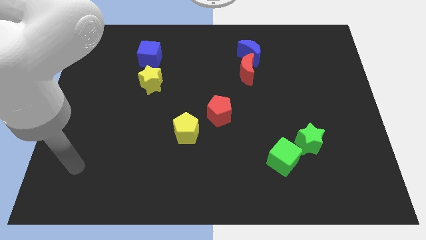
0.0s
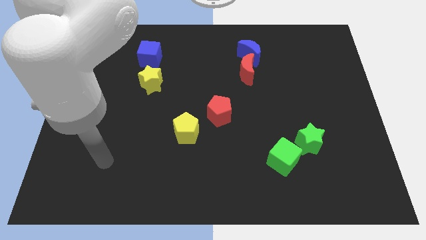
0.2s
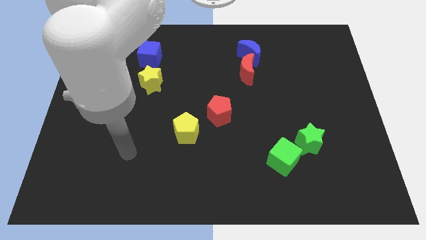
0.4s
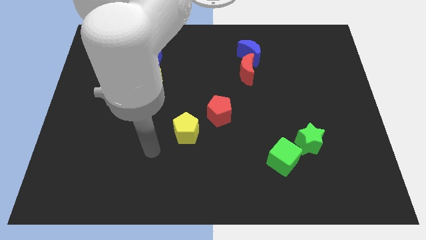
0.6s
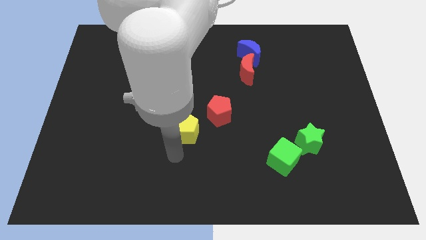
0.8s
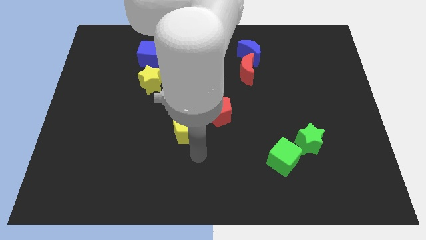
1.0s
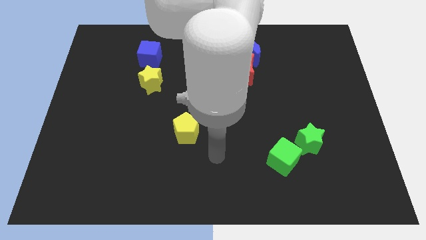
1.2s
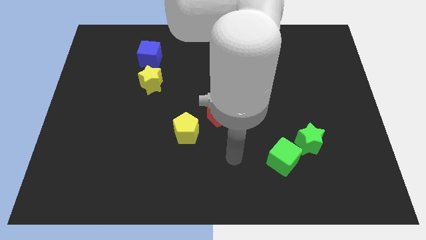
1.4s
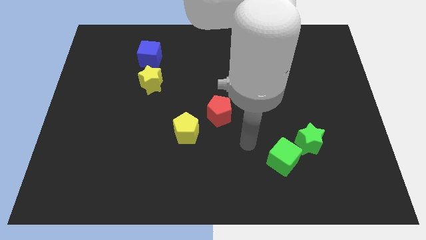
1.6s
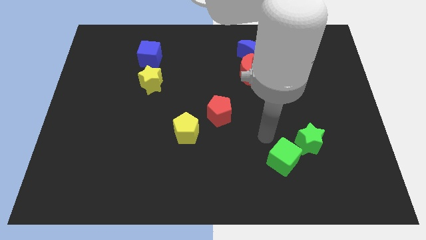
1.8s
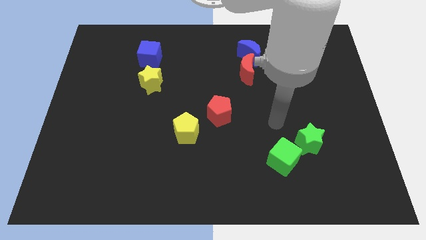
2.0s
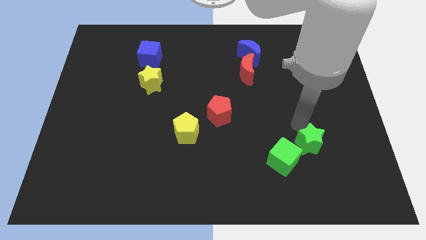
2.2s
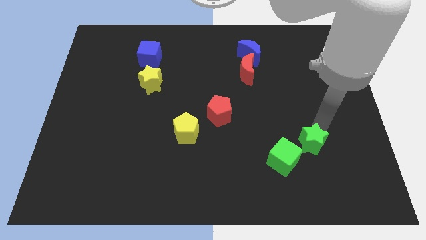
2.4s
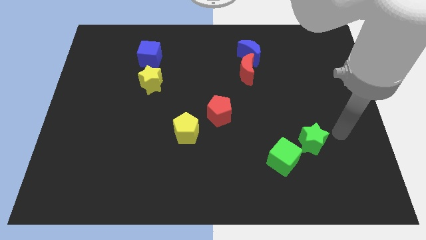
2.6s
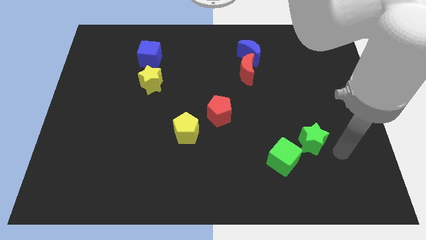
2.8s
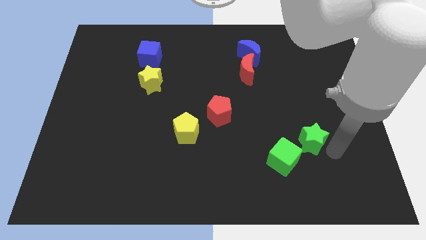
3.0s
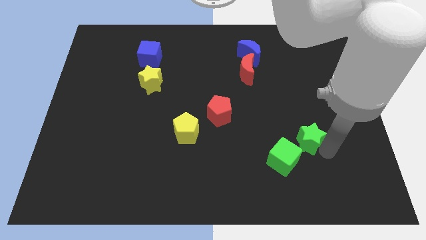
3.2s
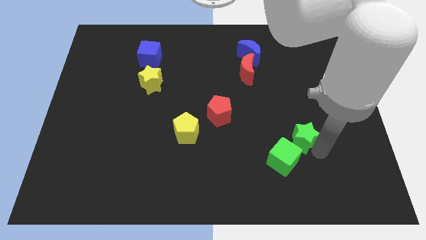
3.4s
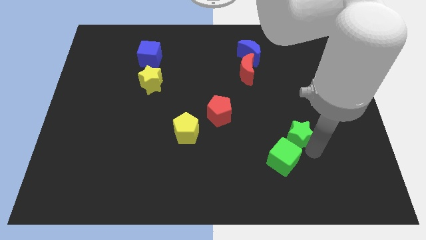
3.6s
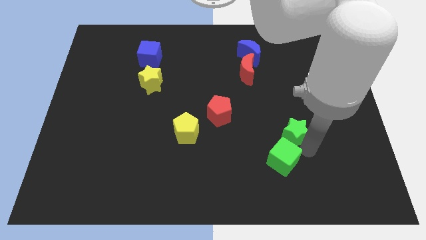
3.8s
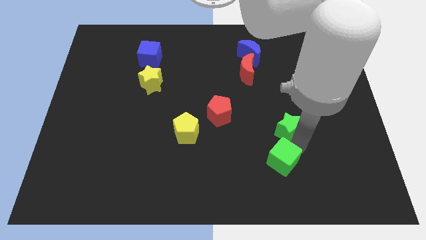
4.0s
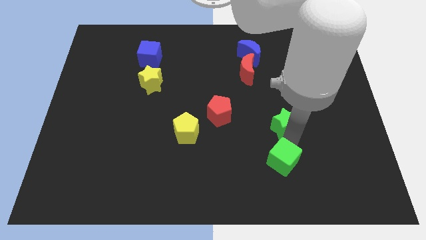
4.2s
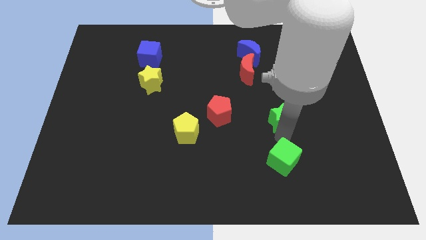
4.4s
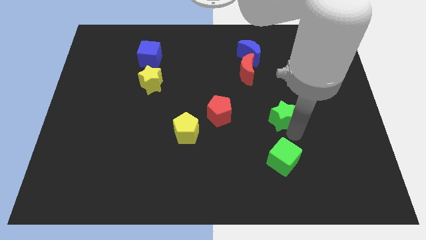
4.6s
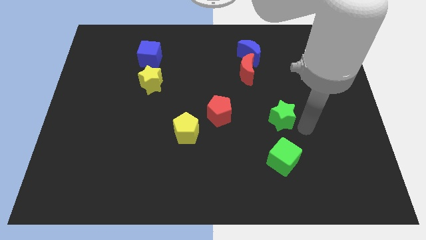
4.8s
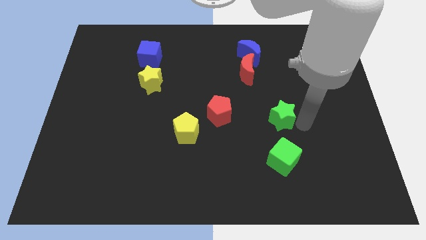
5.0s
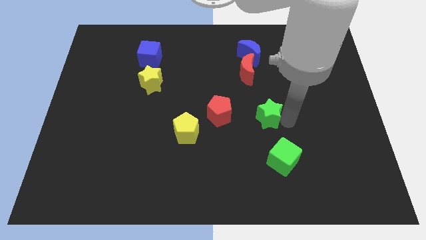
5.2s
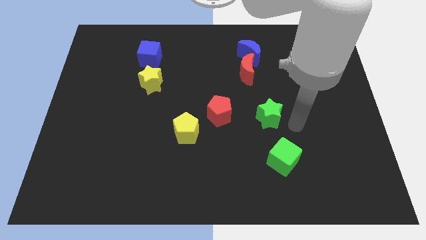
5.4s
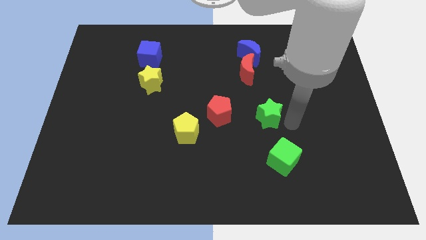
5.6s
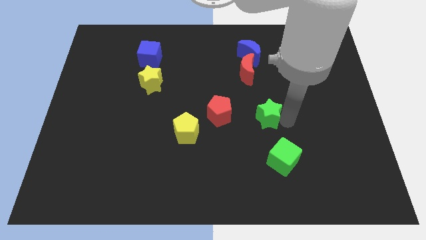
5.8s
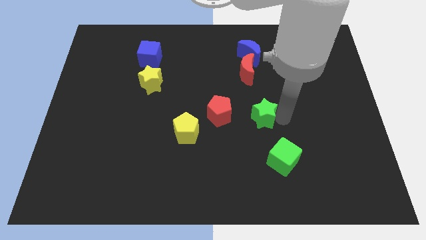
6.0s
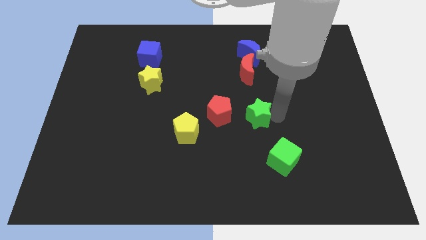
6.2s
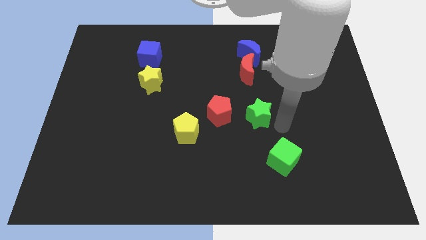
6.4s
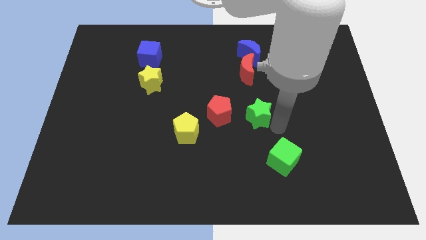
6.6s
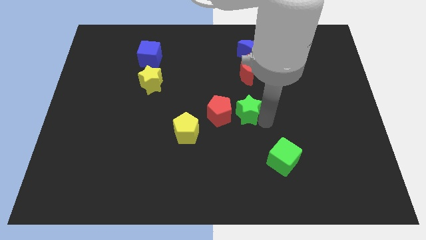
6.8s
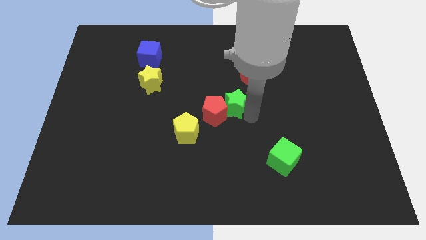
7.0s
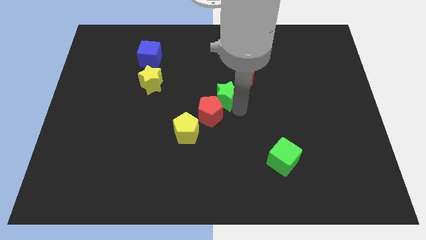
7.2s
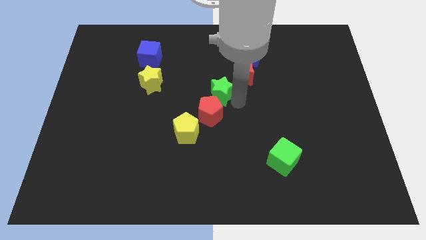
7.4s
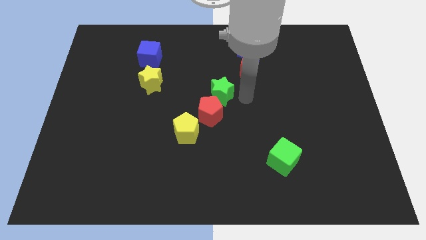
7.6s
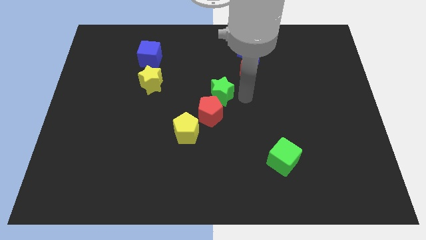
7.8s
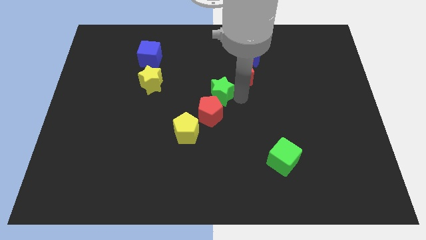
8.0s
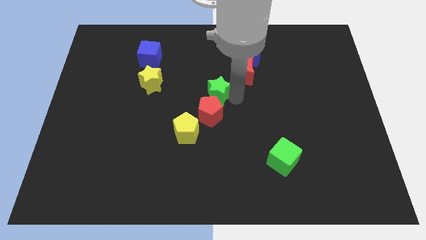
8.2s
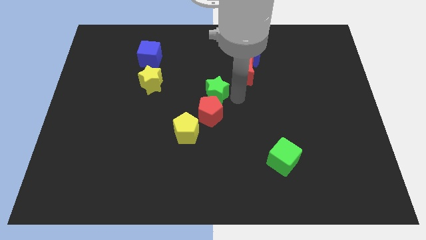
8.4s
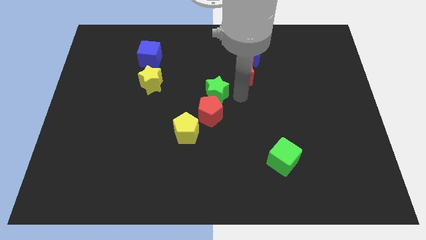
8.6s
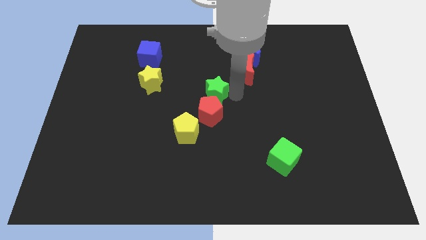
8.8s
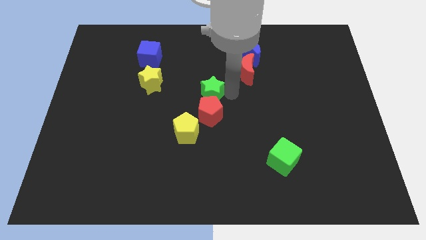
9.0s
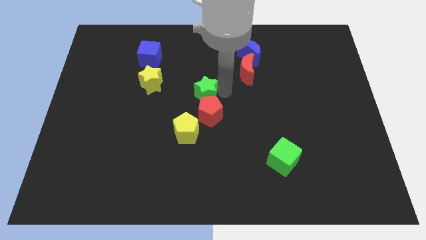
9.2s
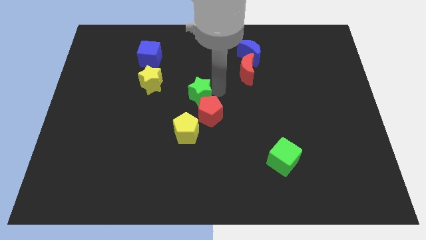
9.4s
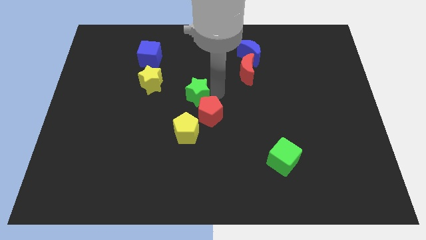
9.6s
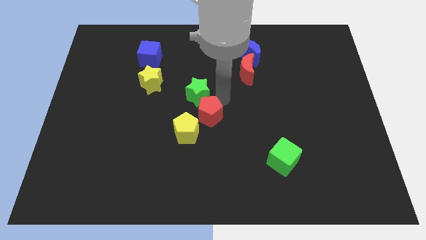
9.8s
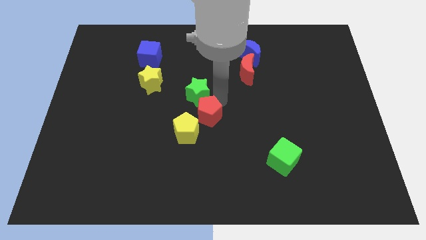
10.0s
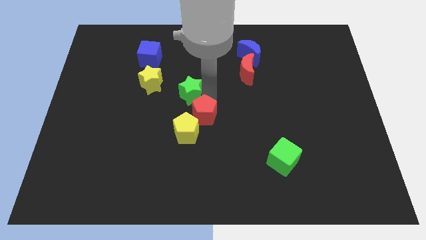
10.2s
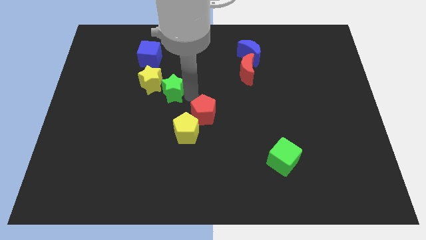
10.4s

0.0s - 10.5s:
move the green star towards the yellow star

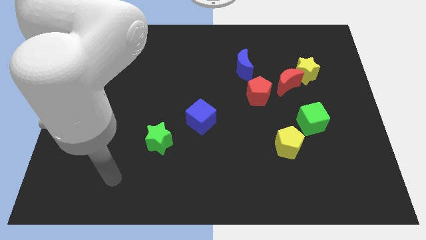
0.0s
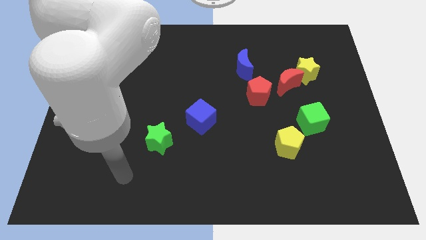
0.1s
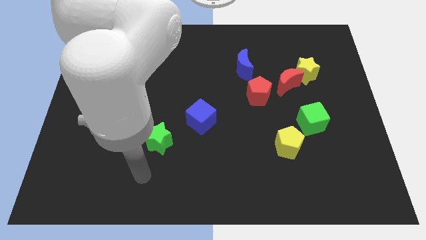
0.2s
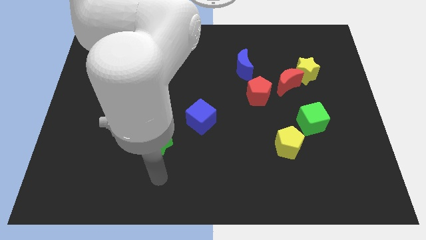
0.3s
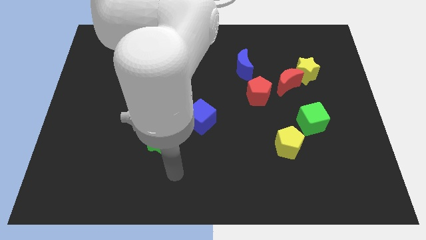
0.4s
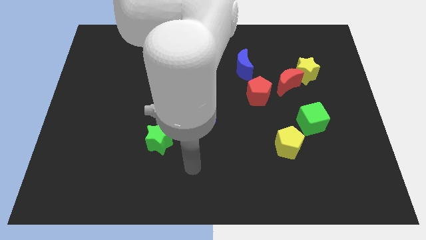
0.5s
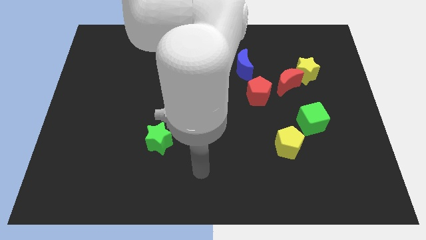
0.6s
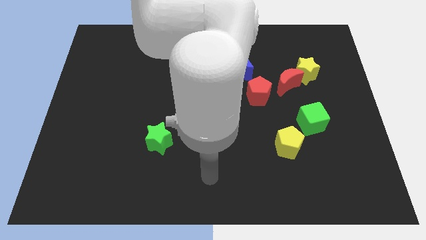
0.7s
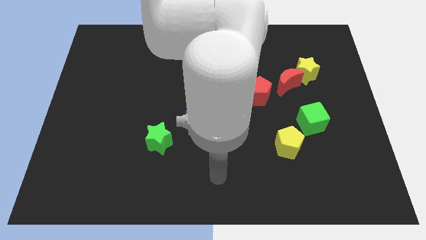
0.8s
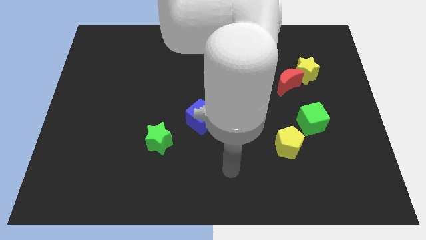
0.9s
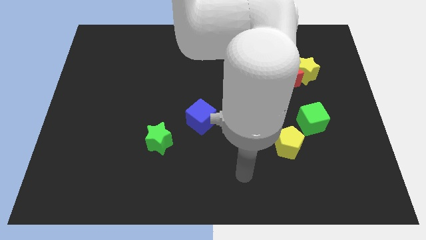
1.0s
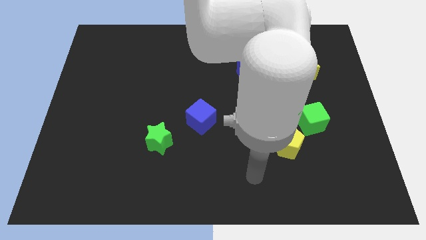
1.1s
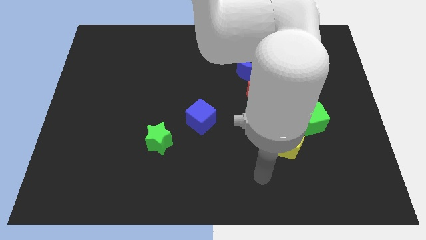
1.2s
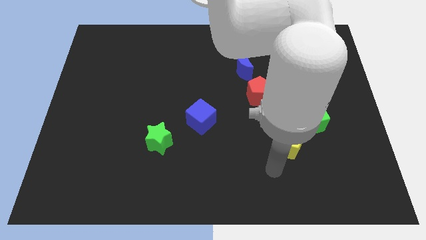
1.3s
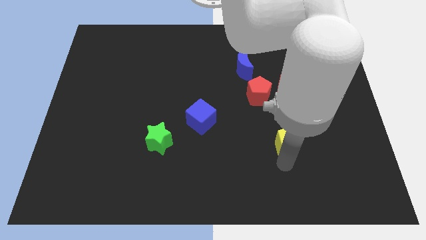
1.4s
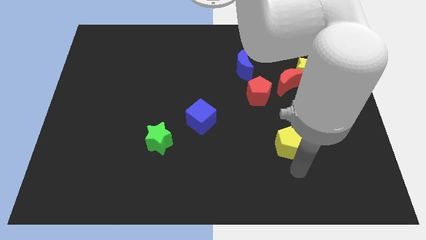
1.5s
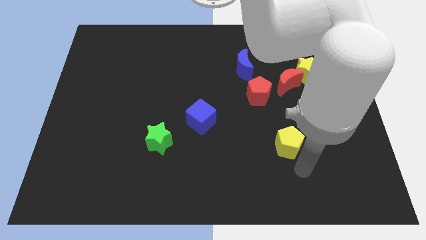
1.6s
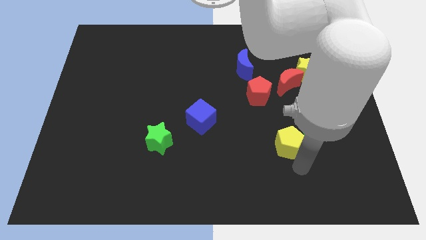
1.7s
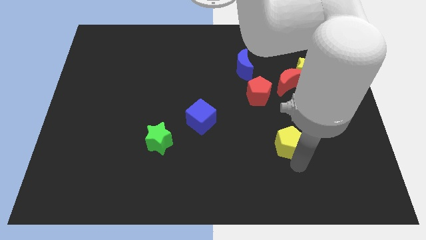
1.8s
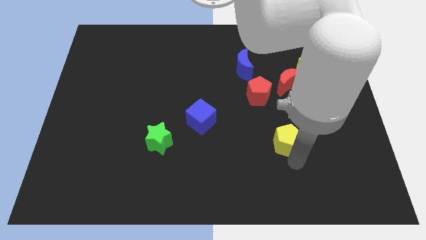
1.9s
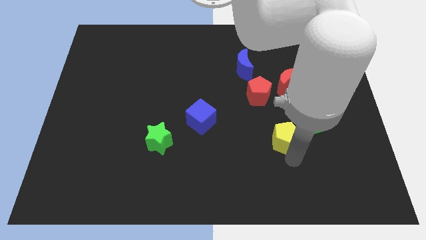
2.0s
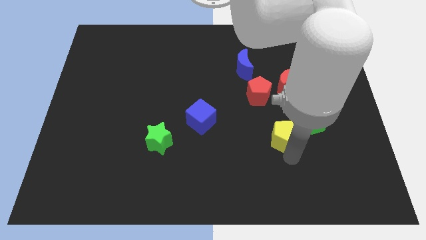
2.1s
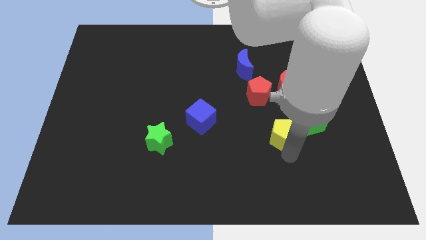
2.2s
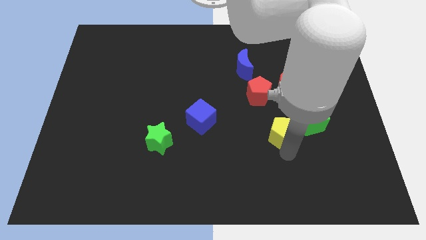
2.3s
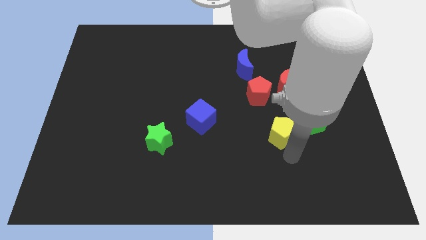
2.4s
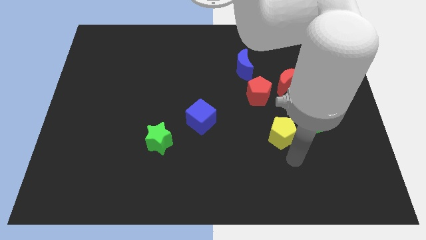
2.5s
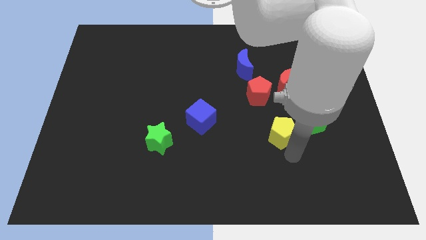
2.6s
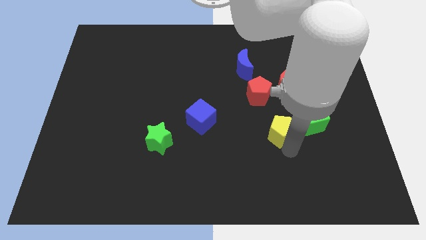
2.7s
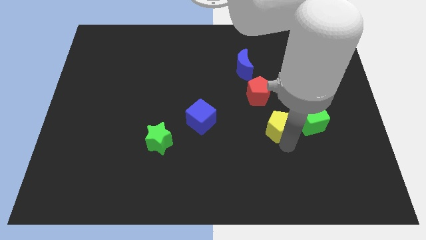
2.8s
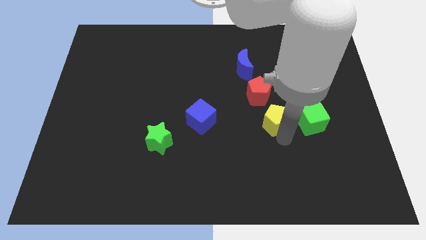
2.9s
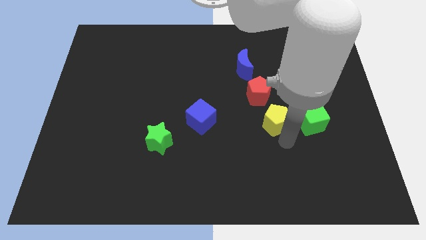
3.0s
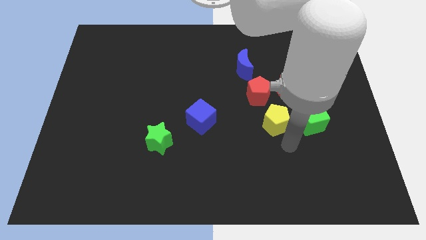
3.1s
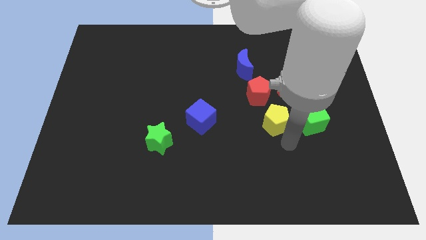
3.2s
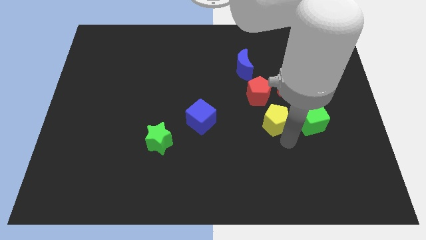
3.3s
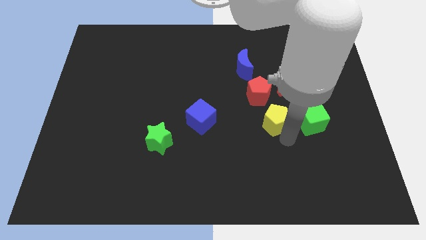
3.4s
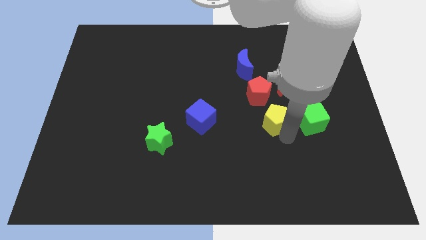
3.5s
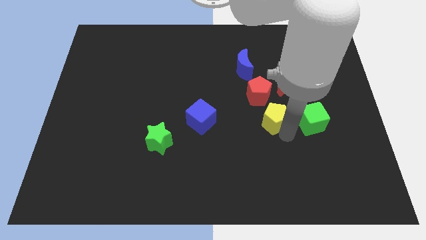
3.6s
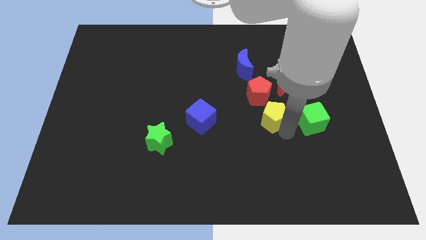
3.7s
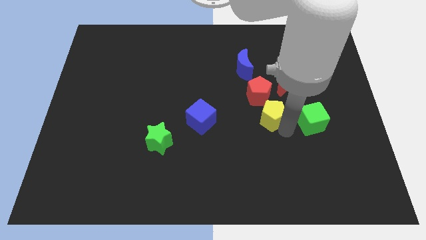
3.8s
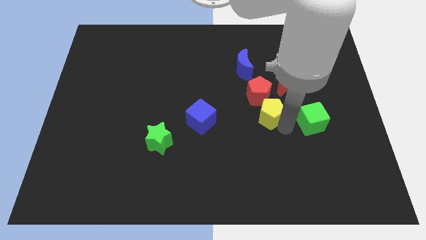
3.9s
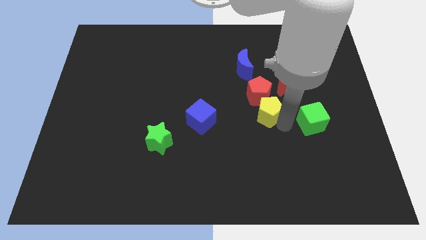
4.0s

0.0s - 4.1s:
push the yellow pentagon next to the red pentagon
